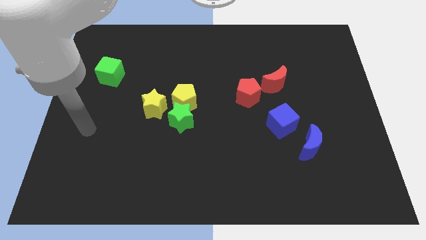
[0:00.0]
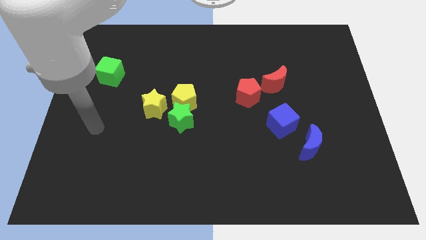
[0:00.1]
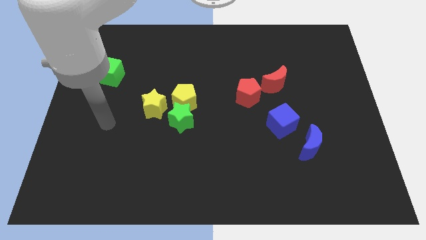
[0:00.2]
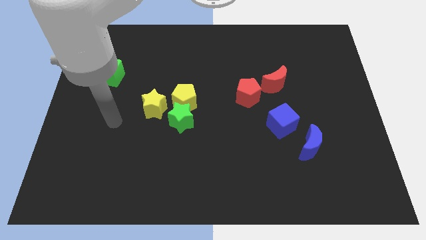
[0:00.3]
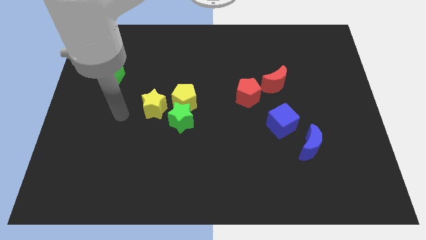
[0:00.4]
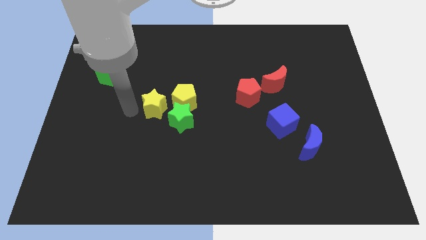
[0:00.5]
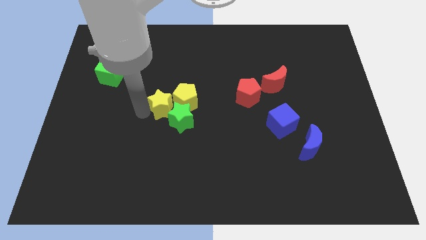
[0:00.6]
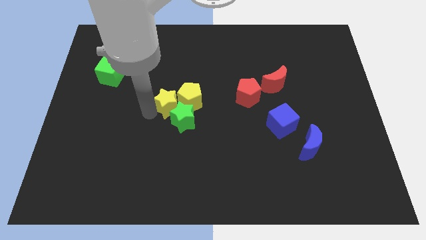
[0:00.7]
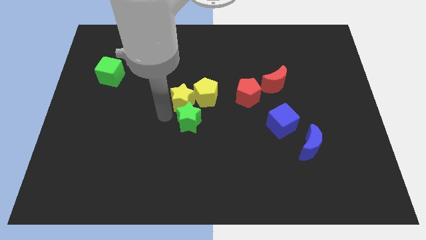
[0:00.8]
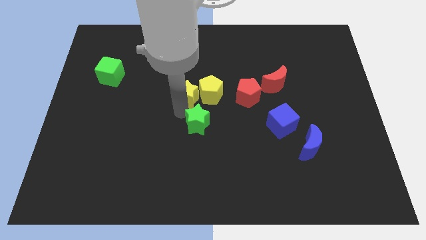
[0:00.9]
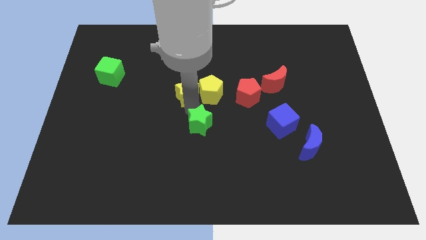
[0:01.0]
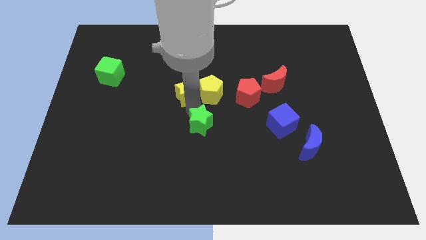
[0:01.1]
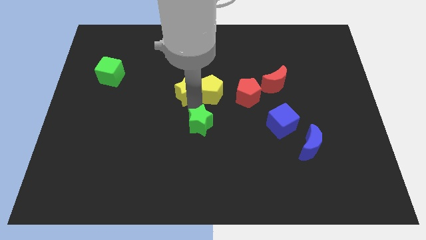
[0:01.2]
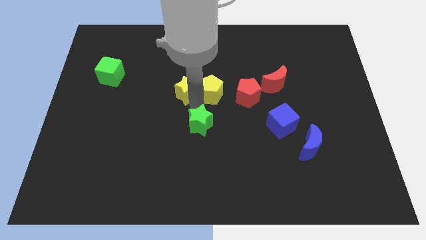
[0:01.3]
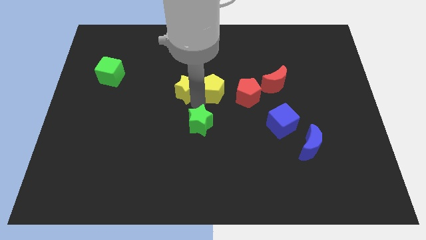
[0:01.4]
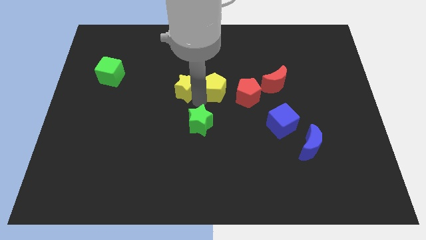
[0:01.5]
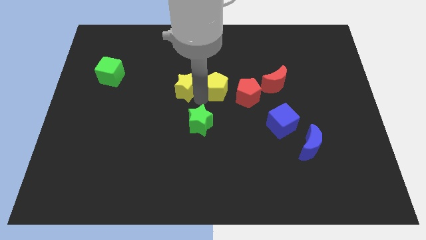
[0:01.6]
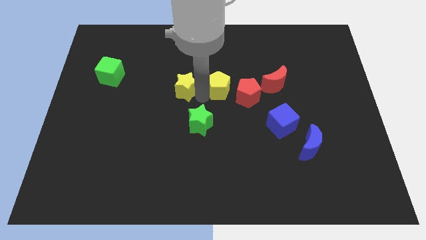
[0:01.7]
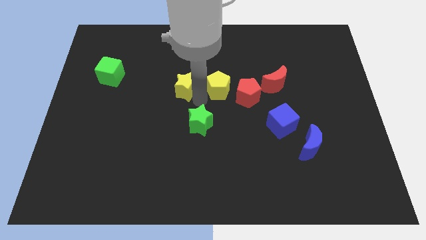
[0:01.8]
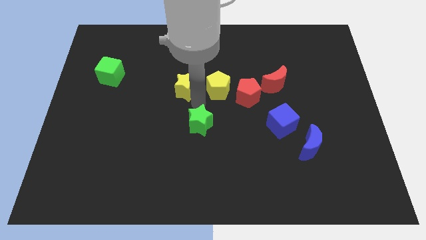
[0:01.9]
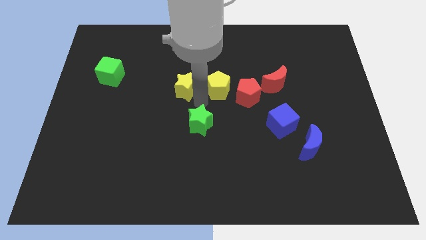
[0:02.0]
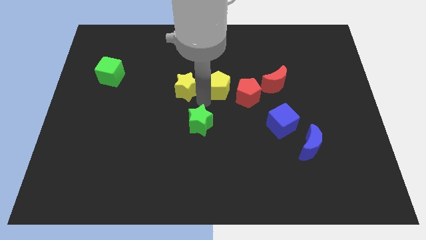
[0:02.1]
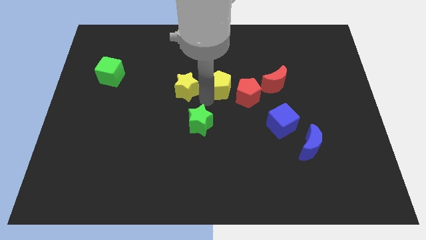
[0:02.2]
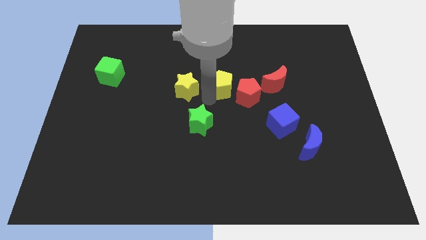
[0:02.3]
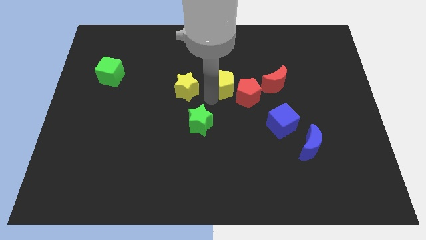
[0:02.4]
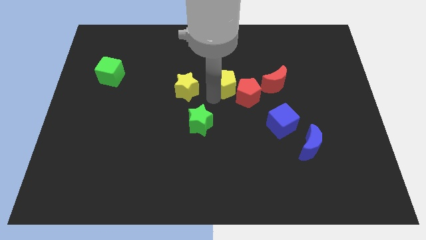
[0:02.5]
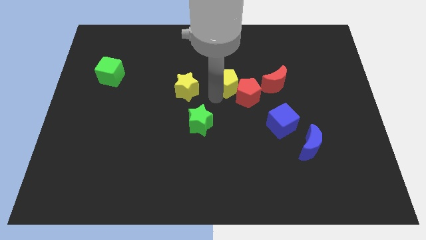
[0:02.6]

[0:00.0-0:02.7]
separate the yellow pentagon from the green star and yellow star

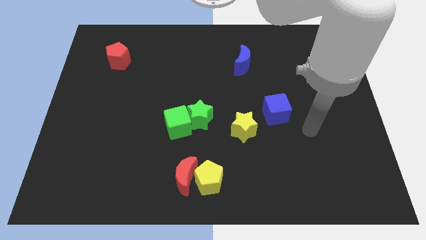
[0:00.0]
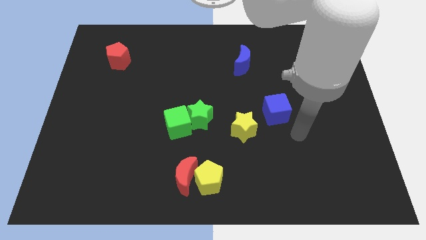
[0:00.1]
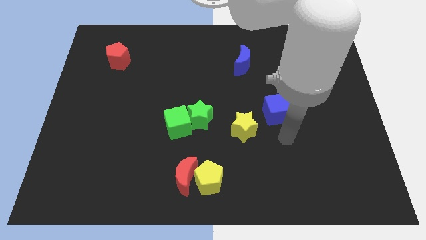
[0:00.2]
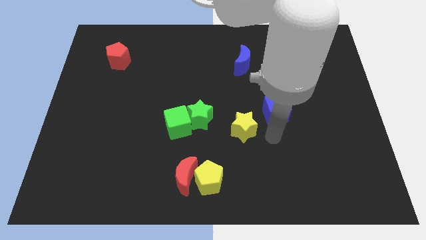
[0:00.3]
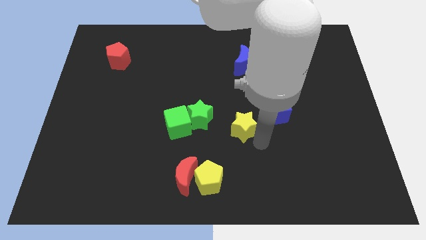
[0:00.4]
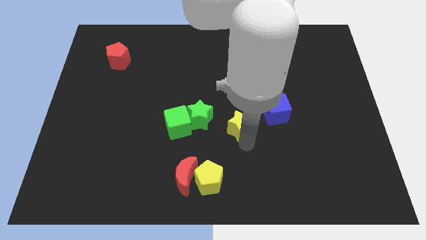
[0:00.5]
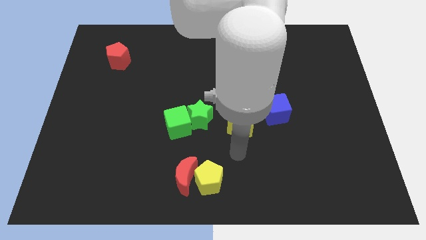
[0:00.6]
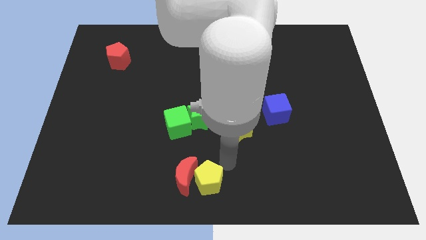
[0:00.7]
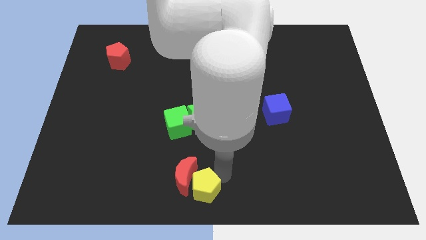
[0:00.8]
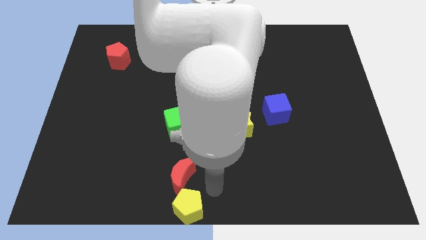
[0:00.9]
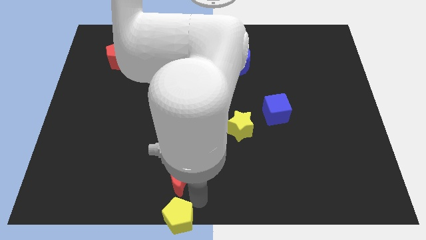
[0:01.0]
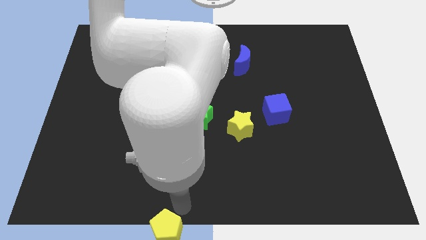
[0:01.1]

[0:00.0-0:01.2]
separate the red moon from the yellow pentagon

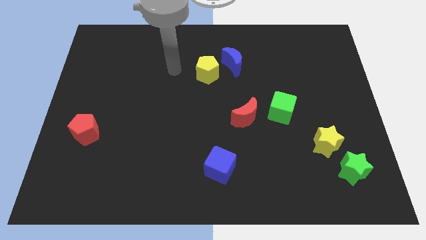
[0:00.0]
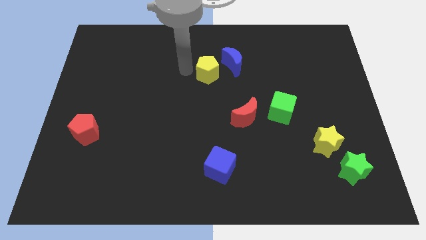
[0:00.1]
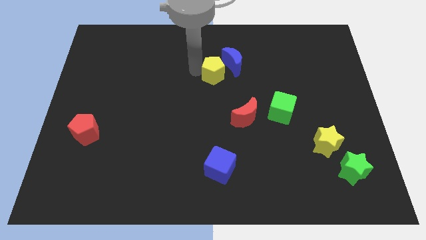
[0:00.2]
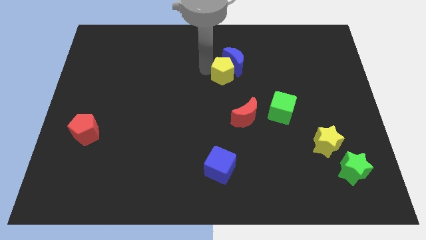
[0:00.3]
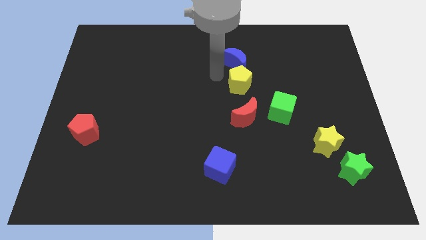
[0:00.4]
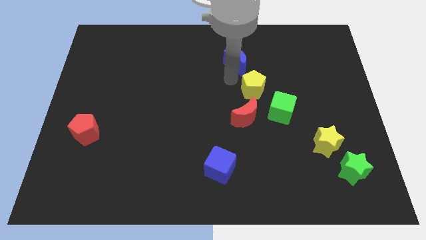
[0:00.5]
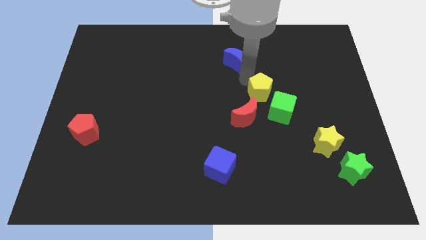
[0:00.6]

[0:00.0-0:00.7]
pull the blue moon apart from the yellow pentagon

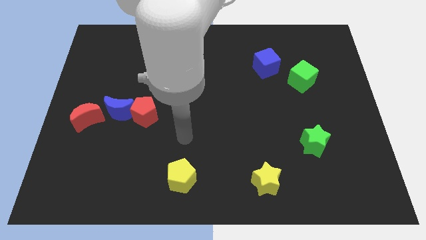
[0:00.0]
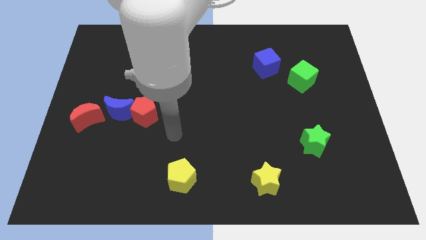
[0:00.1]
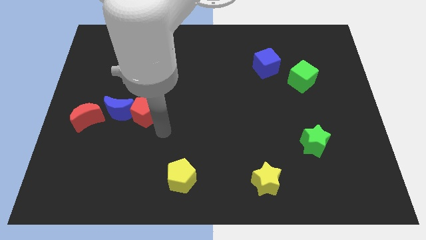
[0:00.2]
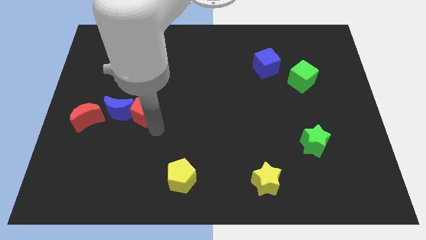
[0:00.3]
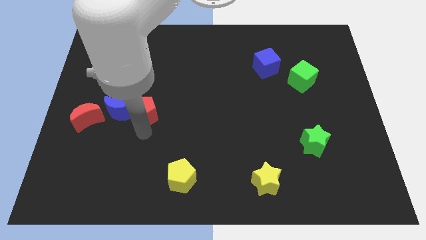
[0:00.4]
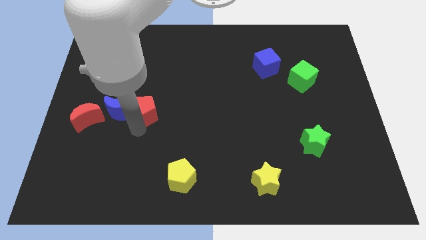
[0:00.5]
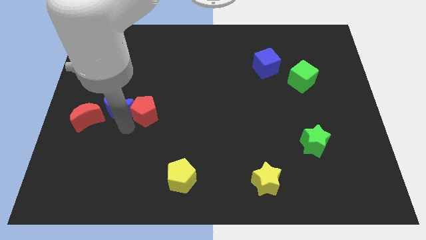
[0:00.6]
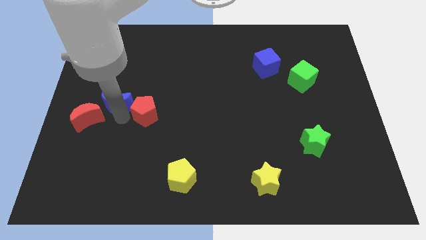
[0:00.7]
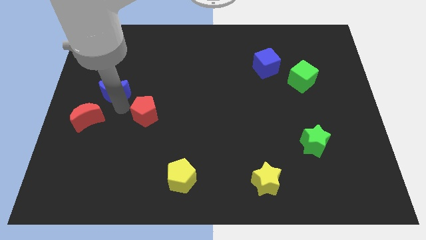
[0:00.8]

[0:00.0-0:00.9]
separate the red pentagon from the blue moon

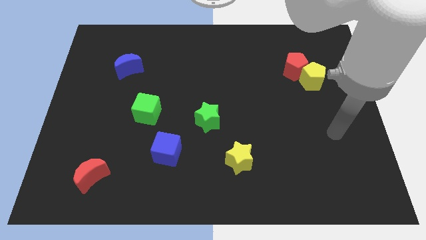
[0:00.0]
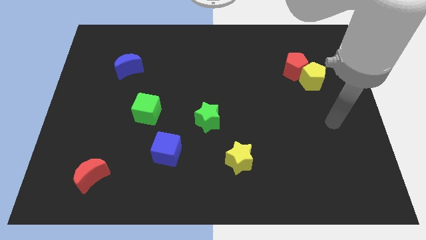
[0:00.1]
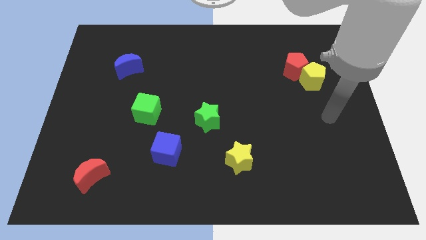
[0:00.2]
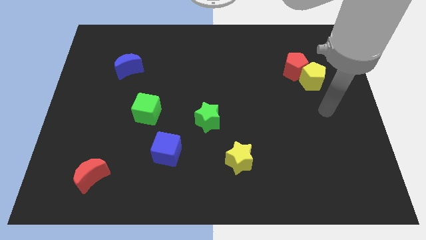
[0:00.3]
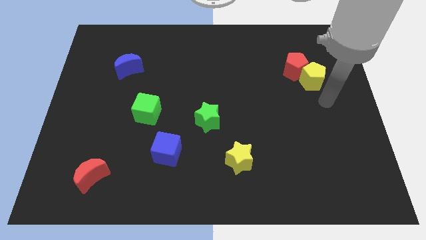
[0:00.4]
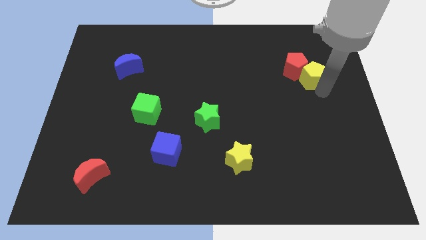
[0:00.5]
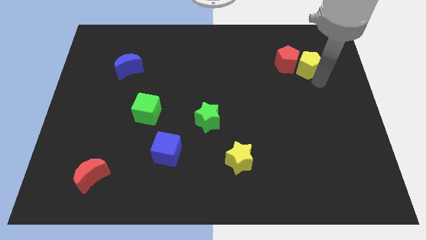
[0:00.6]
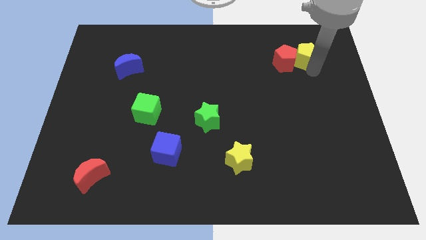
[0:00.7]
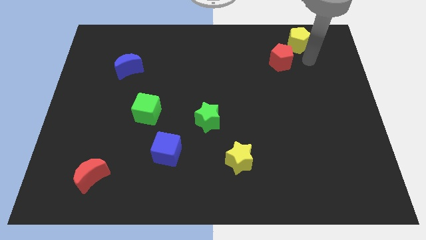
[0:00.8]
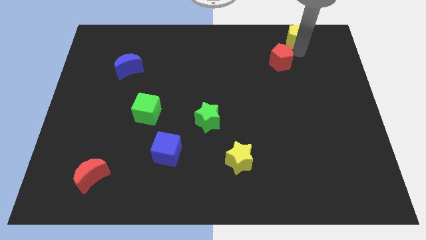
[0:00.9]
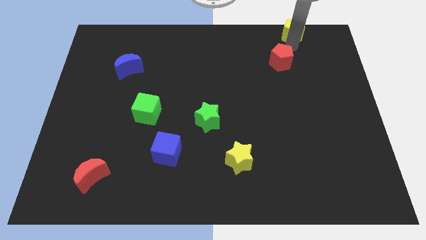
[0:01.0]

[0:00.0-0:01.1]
move the red pentagon away from the yellow pentagon

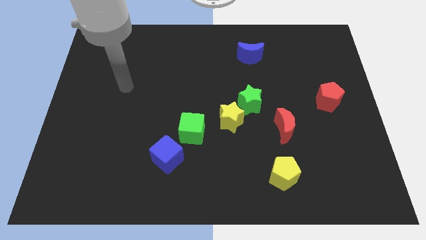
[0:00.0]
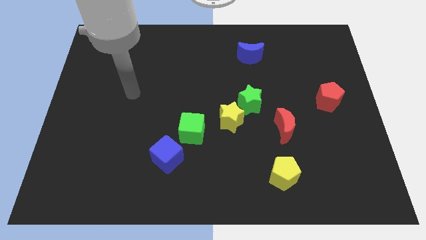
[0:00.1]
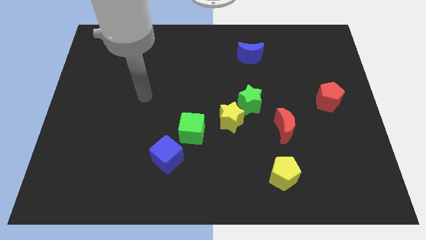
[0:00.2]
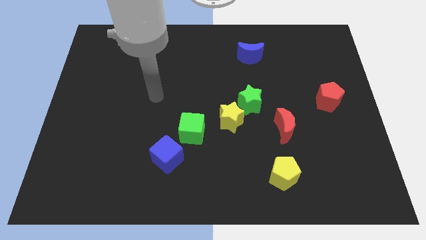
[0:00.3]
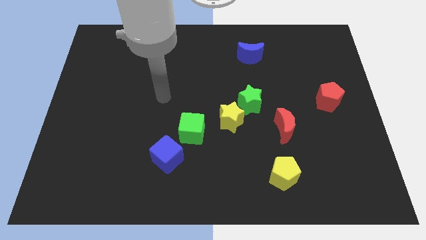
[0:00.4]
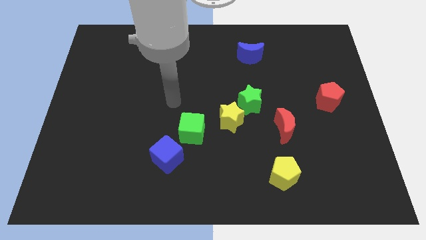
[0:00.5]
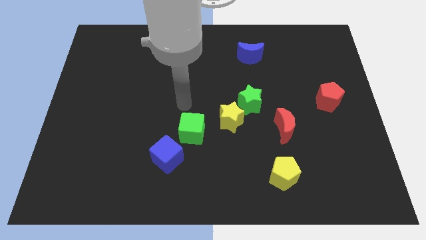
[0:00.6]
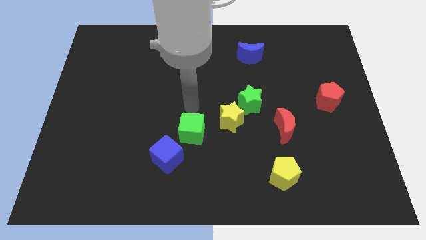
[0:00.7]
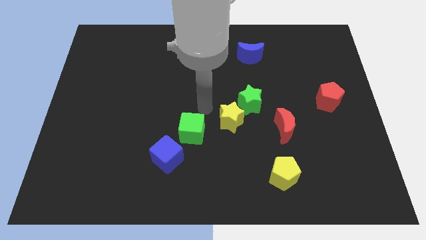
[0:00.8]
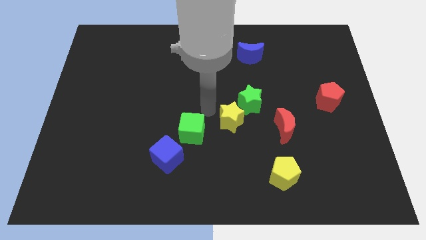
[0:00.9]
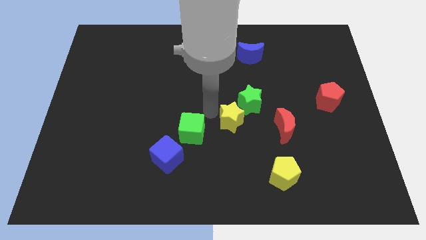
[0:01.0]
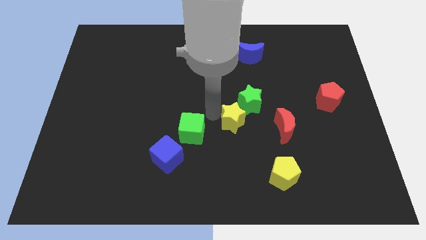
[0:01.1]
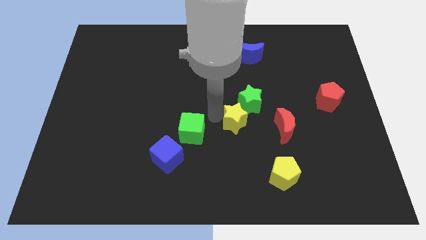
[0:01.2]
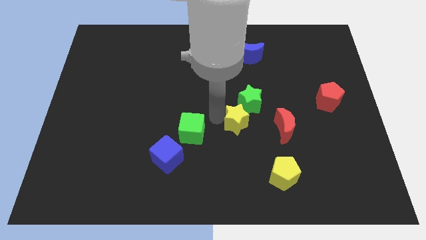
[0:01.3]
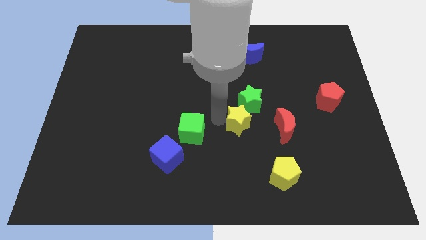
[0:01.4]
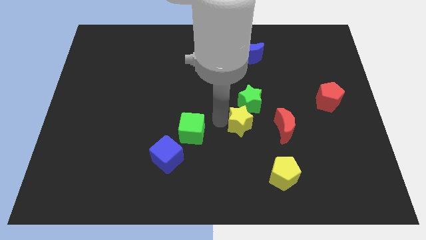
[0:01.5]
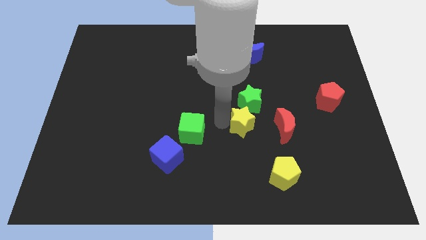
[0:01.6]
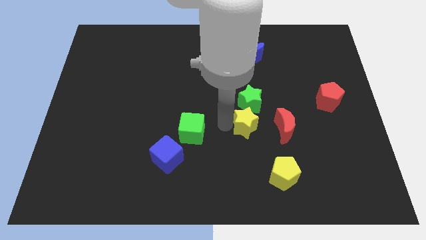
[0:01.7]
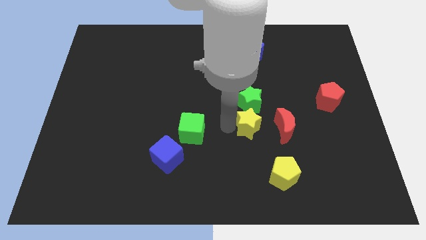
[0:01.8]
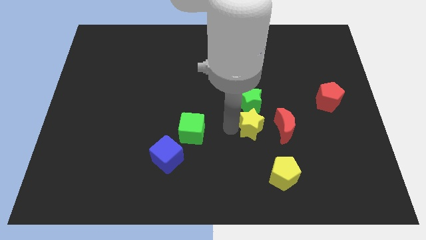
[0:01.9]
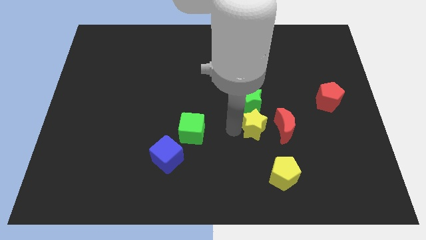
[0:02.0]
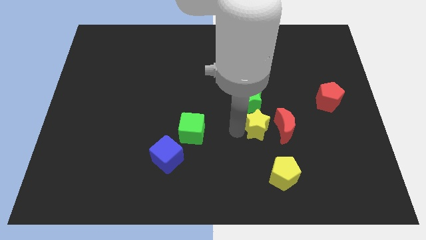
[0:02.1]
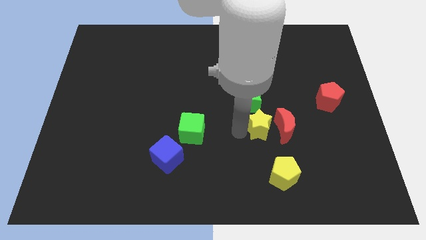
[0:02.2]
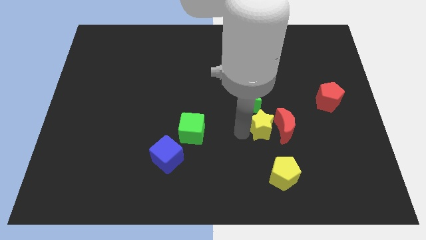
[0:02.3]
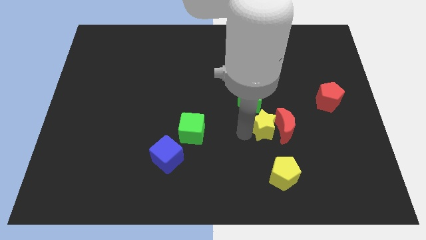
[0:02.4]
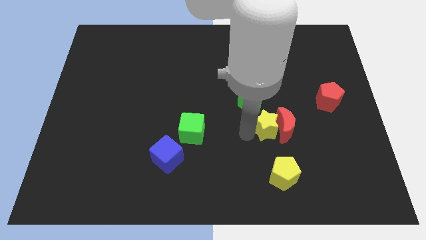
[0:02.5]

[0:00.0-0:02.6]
pull the yellow star apart from the green star and green cube
